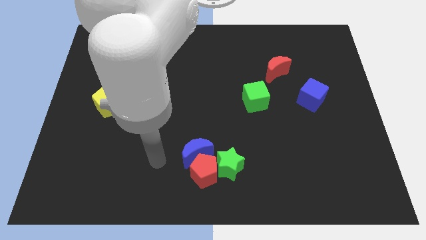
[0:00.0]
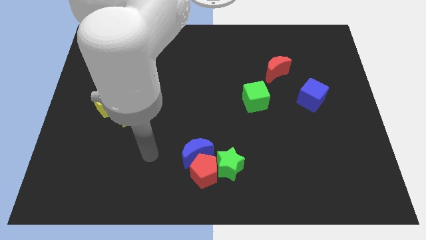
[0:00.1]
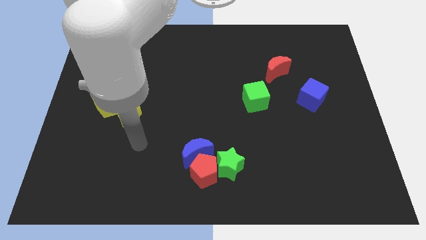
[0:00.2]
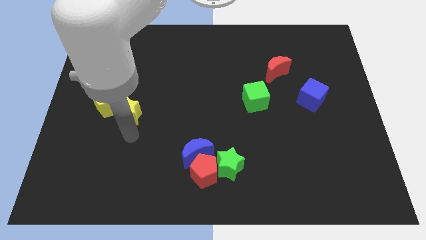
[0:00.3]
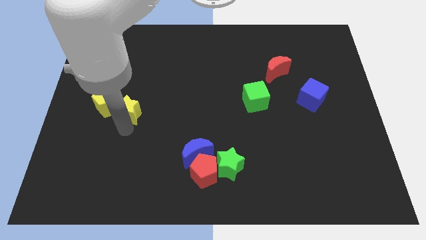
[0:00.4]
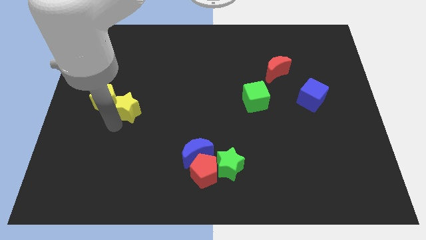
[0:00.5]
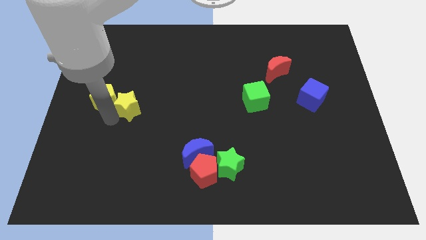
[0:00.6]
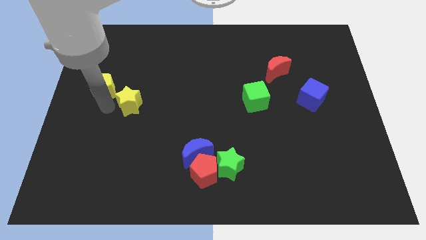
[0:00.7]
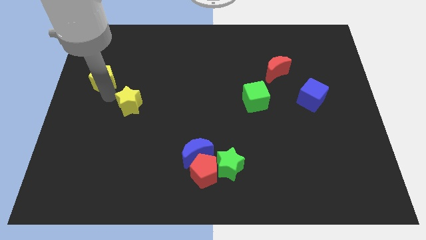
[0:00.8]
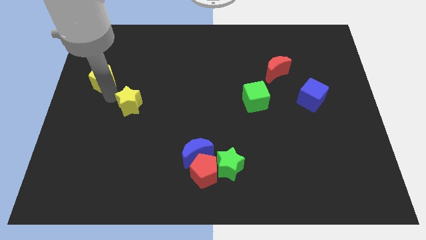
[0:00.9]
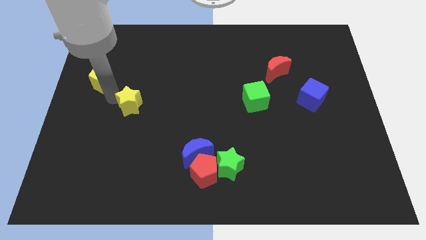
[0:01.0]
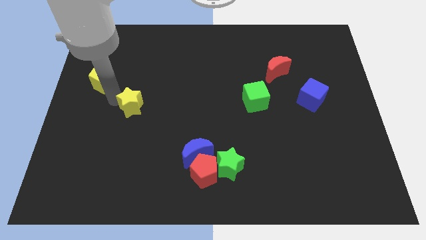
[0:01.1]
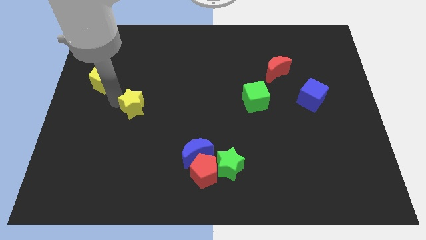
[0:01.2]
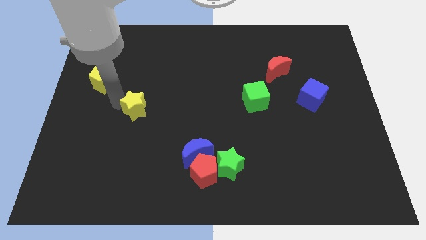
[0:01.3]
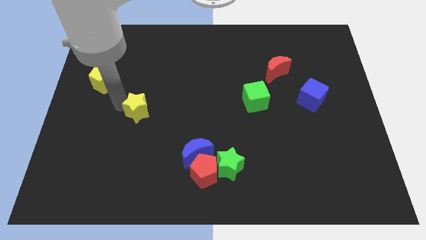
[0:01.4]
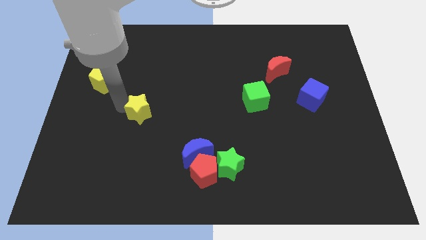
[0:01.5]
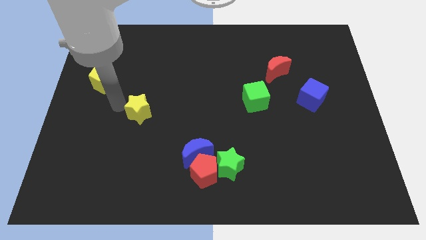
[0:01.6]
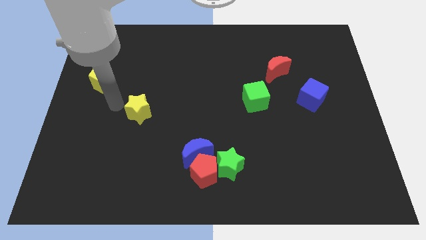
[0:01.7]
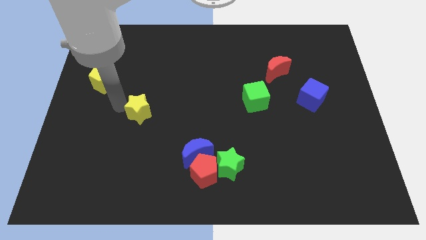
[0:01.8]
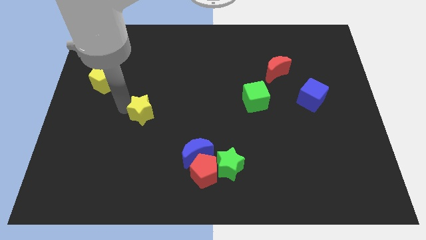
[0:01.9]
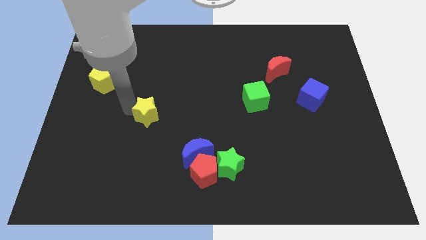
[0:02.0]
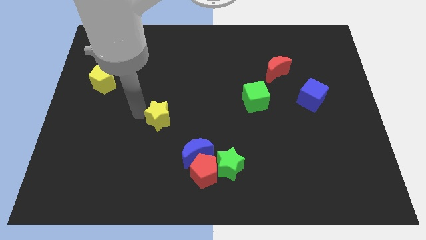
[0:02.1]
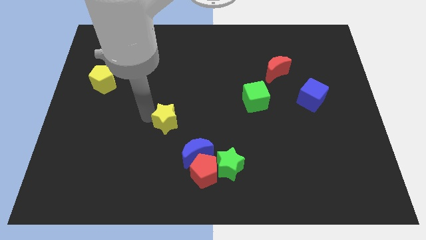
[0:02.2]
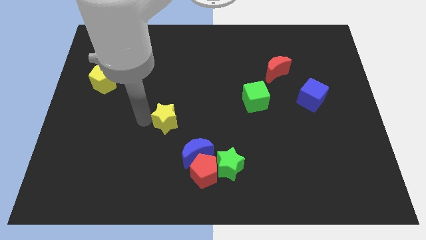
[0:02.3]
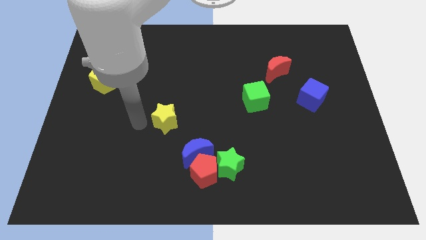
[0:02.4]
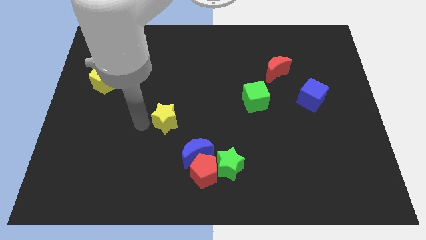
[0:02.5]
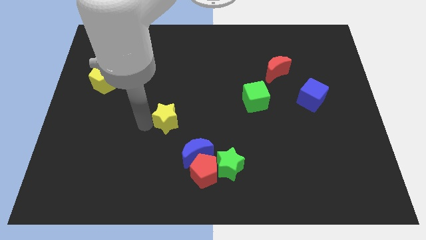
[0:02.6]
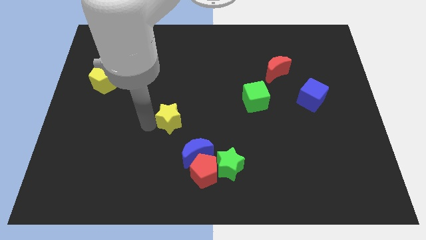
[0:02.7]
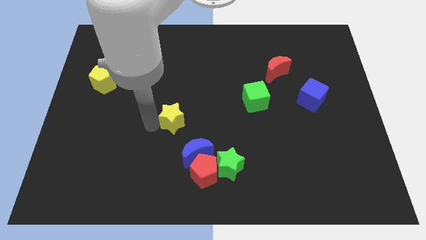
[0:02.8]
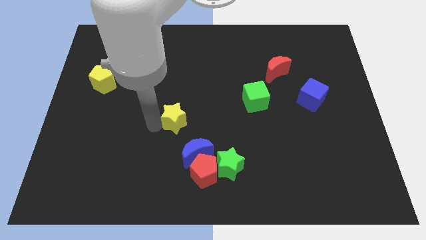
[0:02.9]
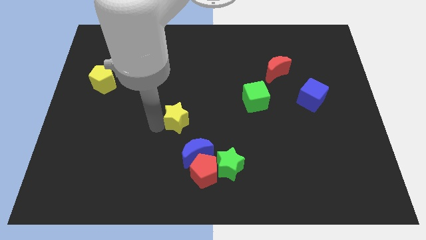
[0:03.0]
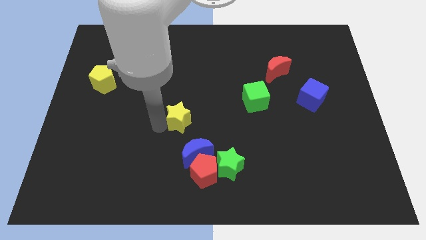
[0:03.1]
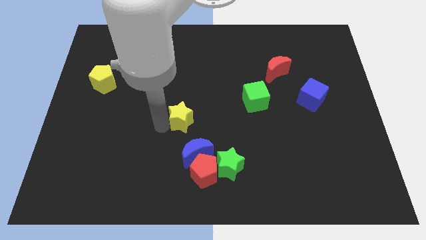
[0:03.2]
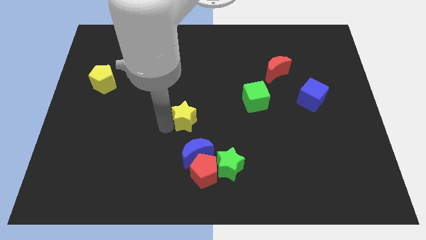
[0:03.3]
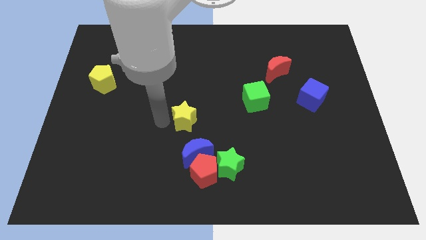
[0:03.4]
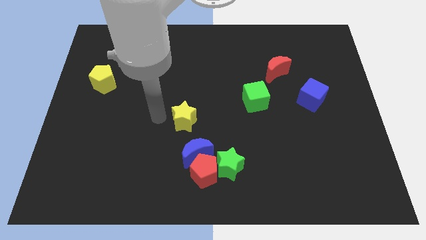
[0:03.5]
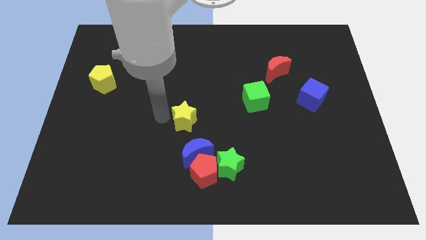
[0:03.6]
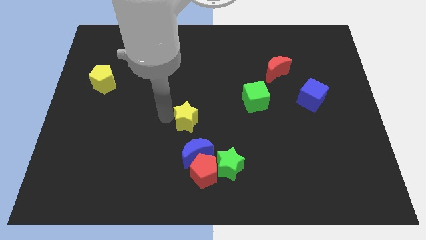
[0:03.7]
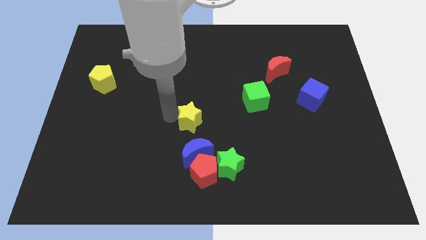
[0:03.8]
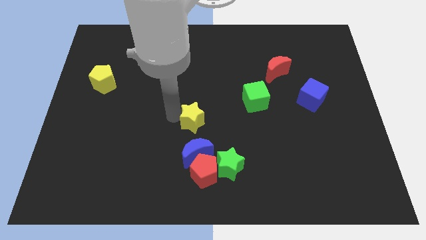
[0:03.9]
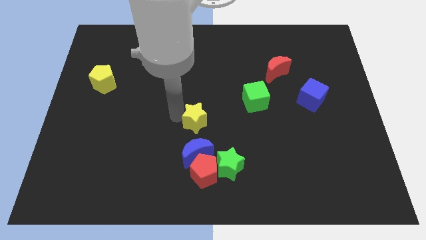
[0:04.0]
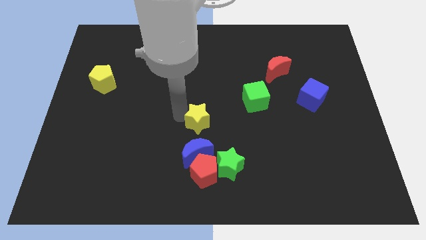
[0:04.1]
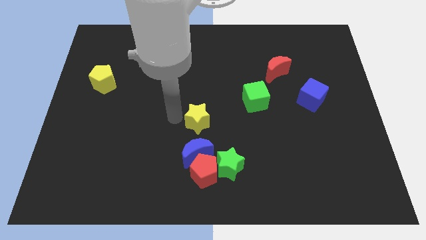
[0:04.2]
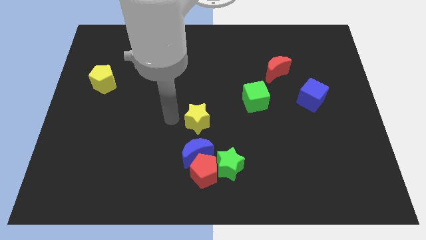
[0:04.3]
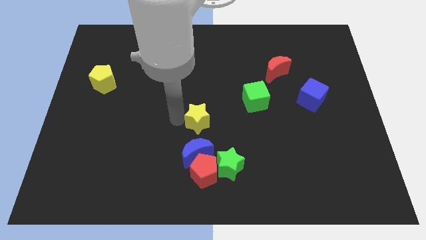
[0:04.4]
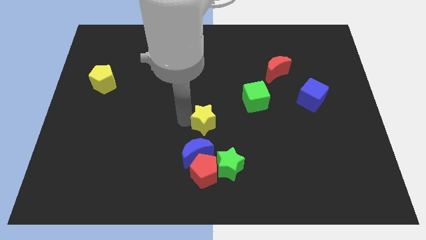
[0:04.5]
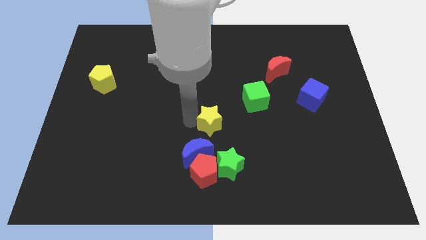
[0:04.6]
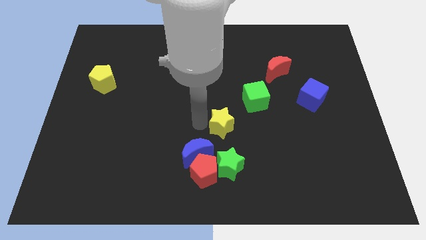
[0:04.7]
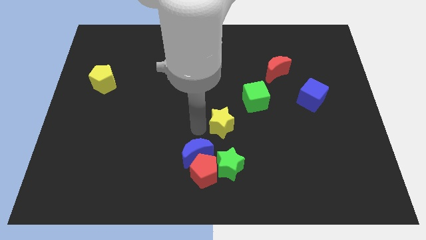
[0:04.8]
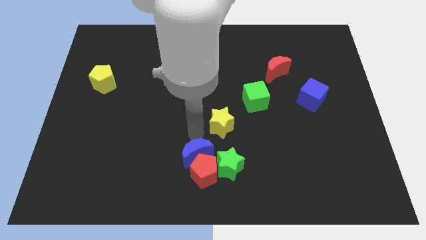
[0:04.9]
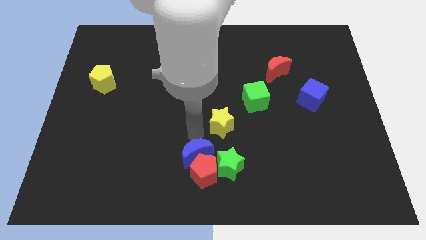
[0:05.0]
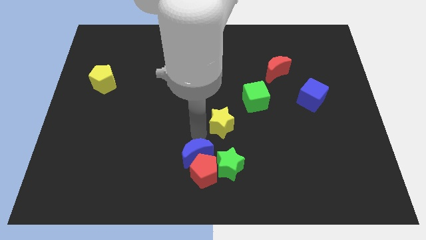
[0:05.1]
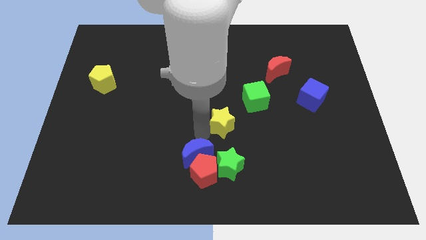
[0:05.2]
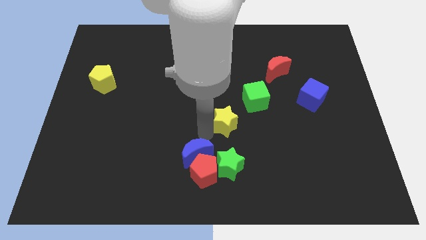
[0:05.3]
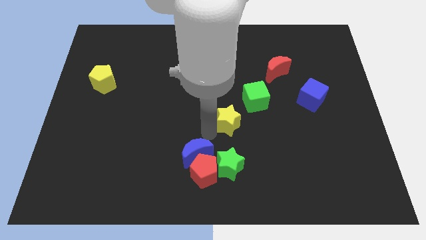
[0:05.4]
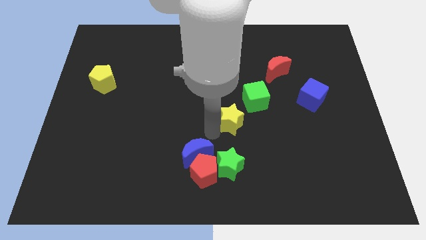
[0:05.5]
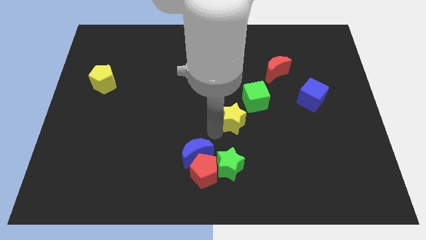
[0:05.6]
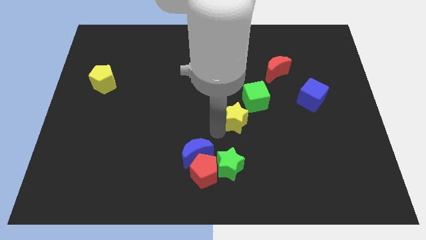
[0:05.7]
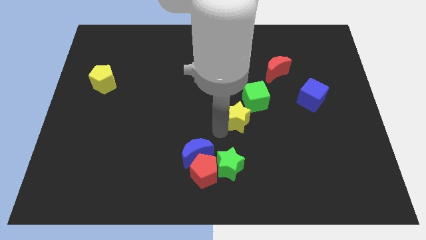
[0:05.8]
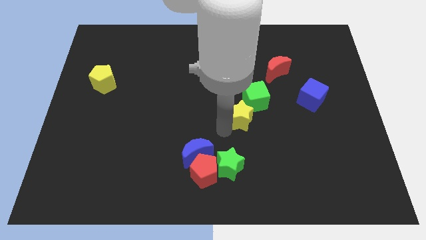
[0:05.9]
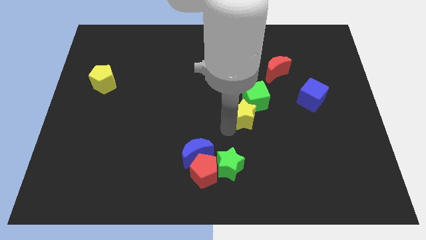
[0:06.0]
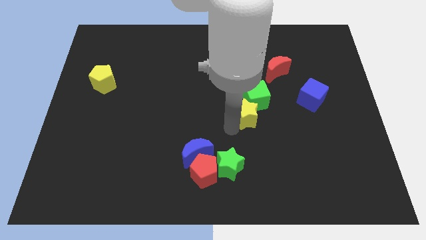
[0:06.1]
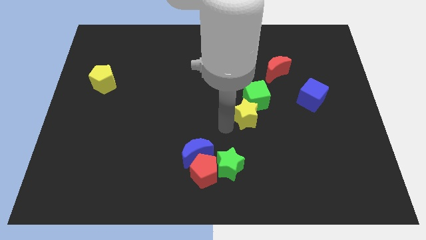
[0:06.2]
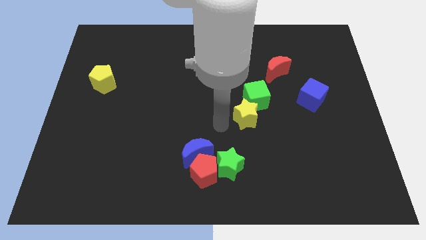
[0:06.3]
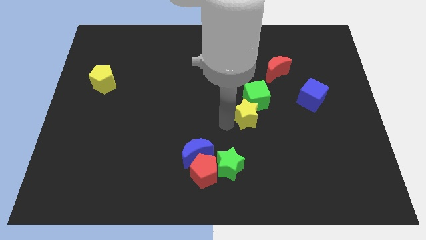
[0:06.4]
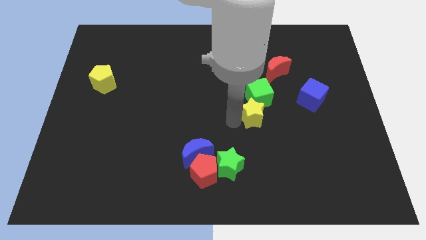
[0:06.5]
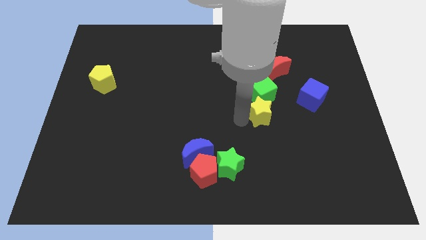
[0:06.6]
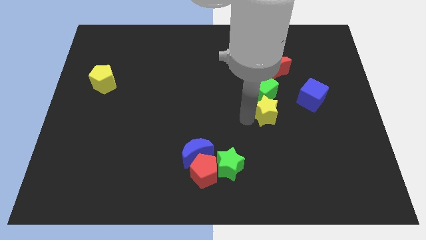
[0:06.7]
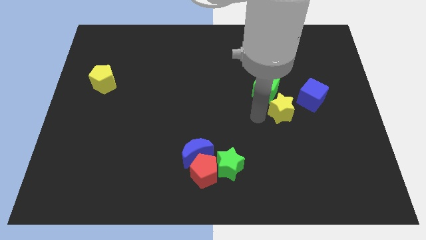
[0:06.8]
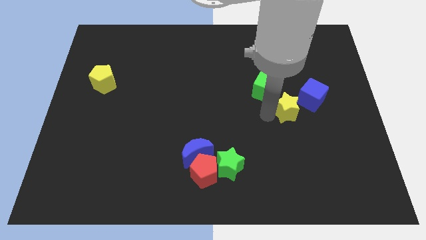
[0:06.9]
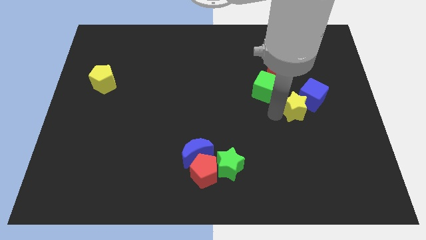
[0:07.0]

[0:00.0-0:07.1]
slide the yellow star next to the blue cube

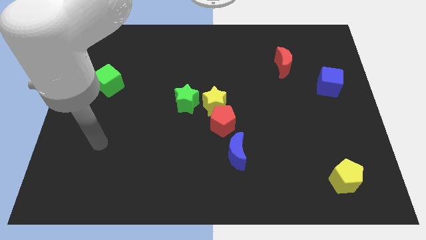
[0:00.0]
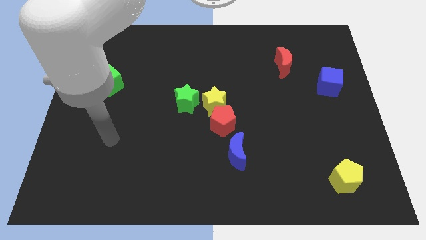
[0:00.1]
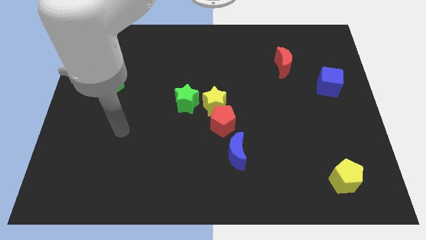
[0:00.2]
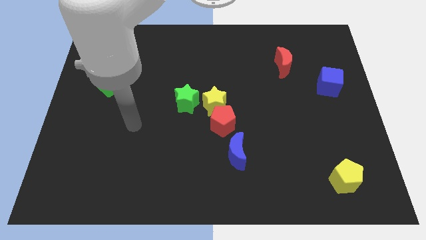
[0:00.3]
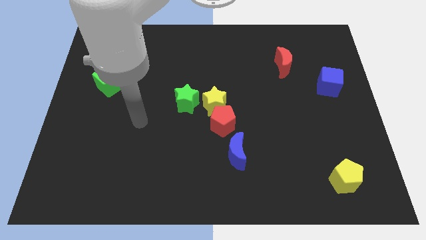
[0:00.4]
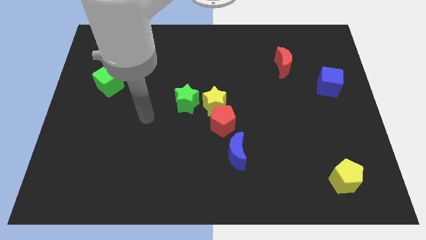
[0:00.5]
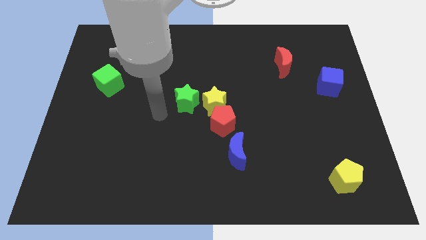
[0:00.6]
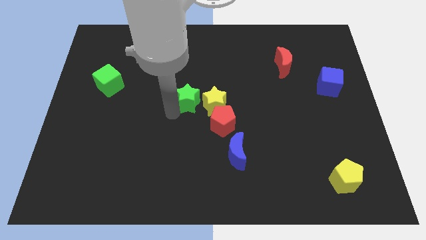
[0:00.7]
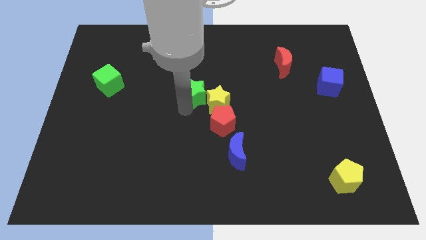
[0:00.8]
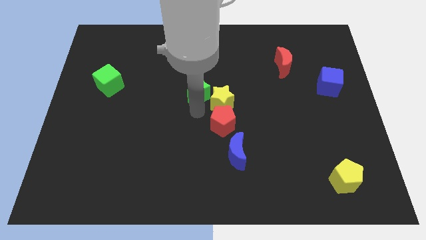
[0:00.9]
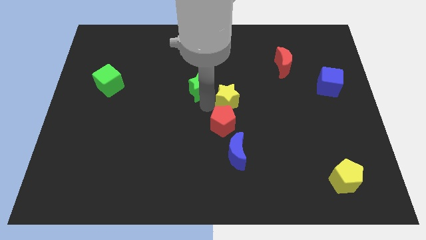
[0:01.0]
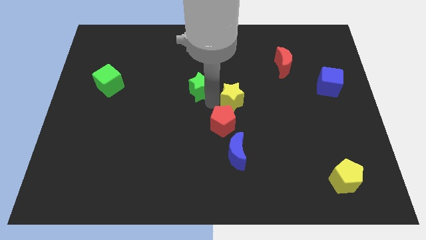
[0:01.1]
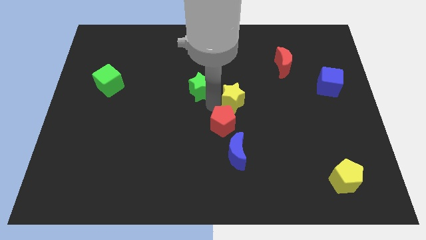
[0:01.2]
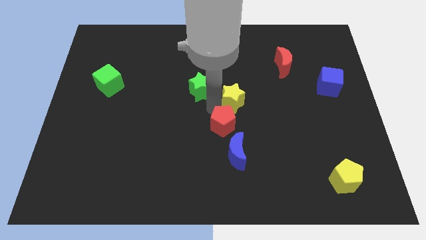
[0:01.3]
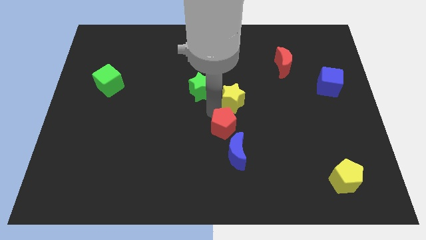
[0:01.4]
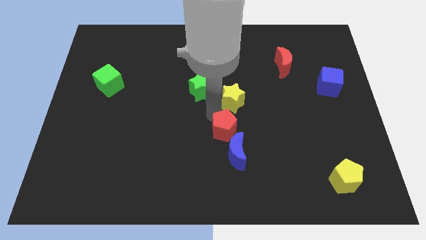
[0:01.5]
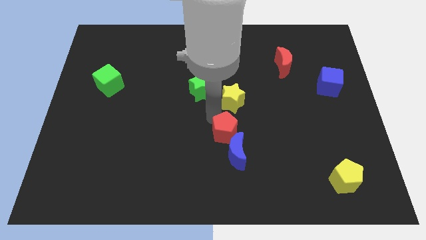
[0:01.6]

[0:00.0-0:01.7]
put the red pentagon to the blue moon
